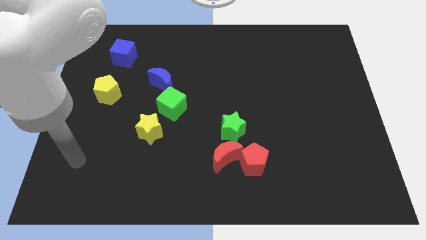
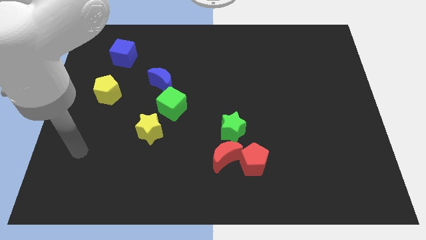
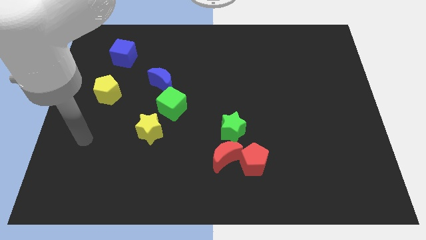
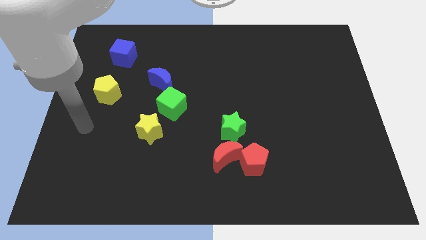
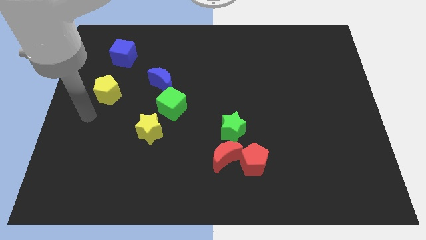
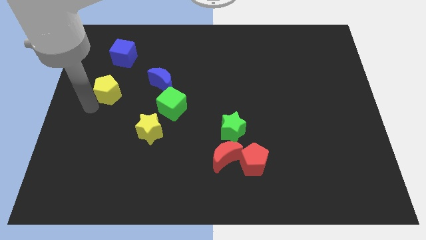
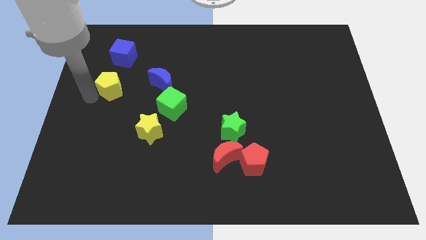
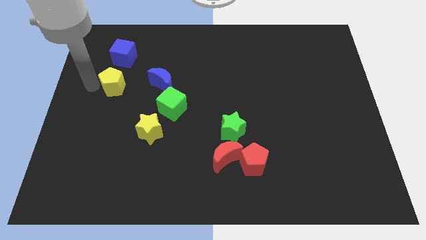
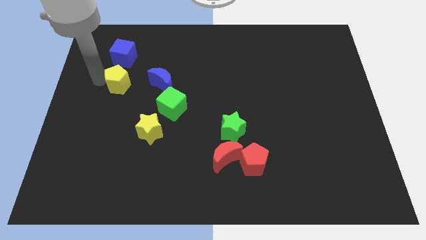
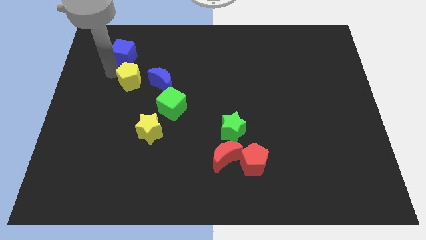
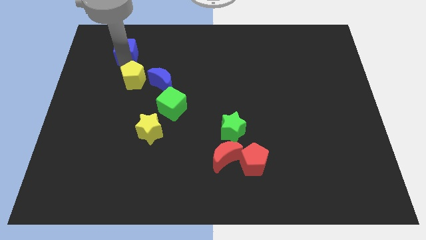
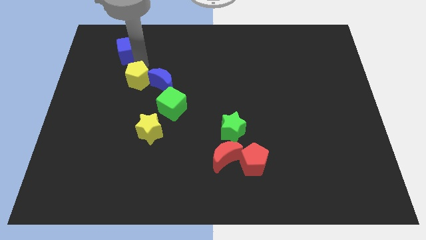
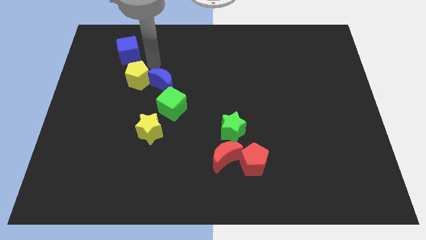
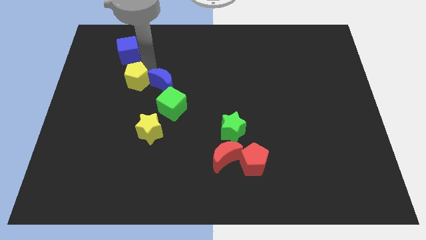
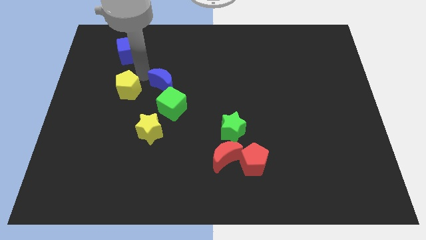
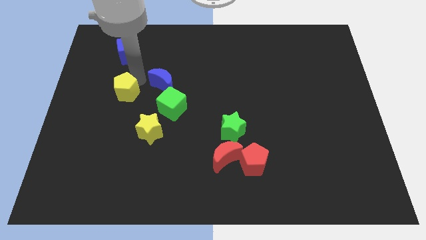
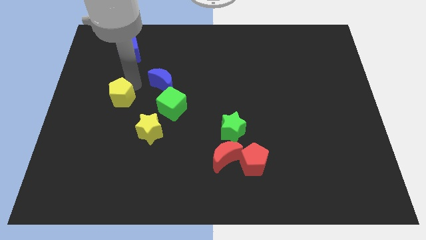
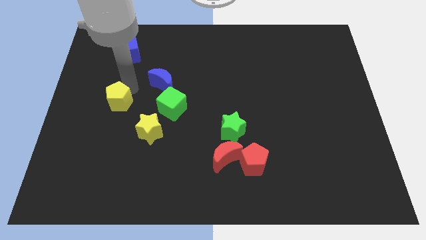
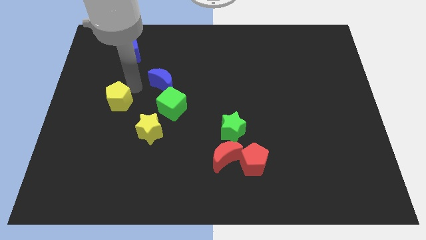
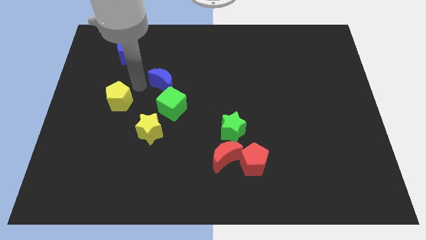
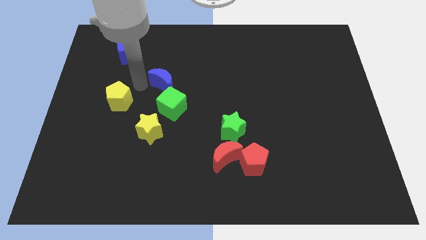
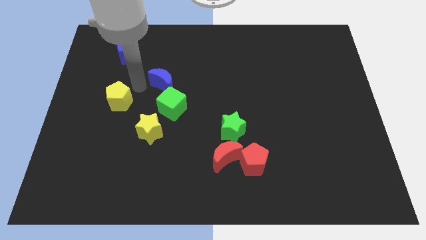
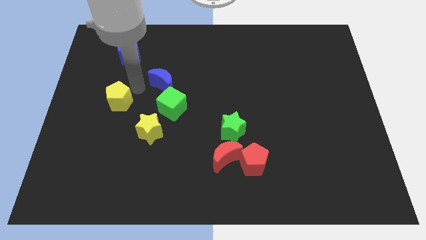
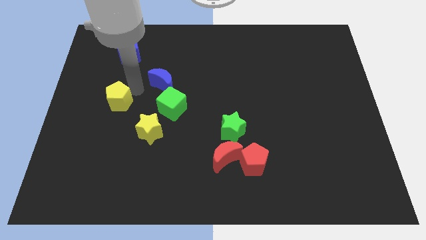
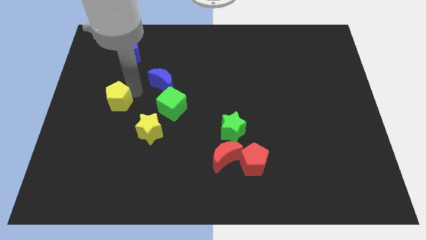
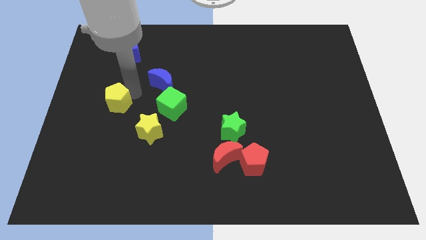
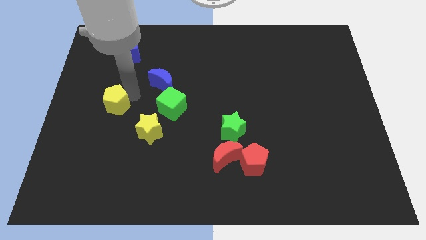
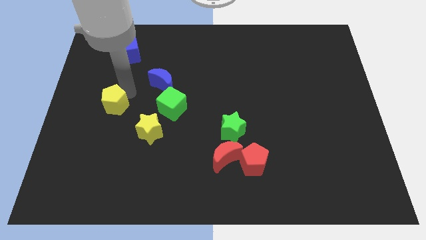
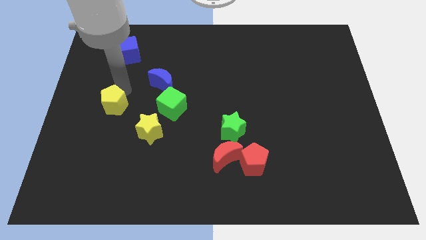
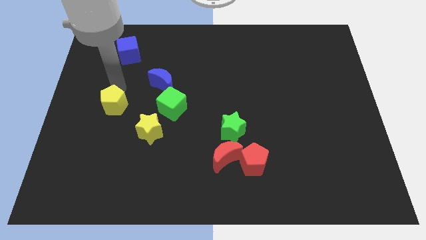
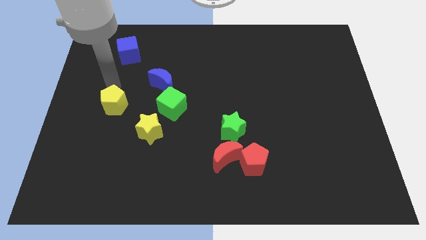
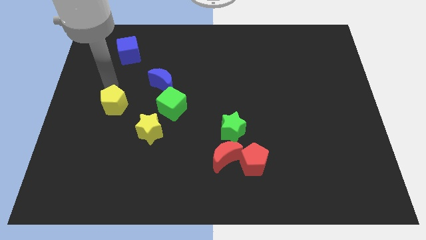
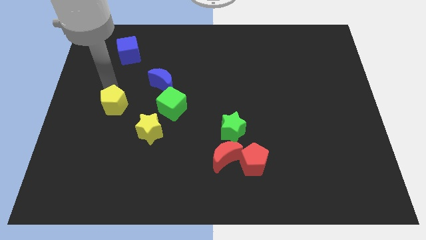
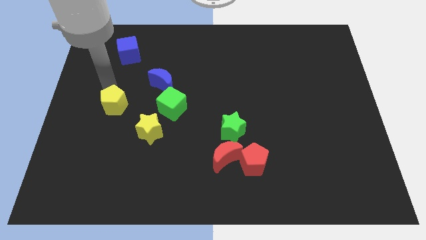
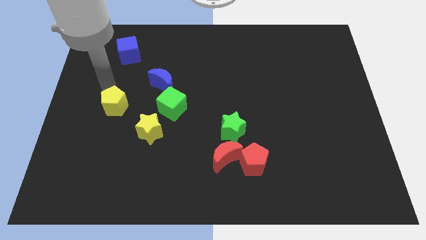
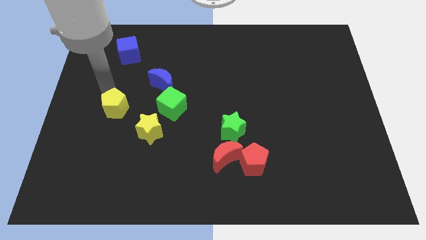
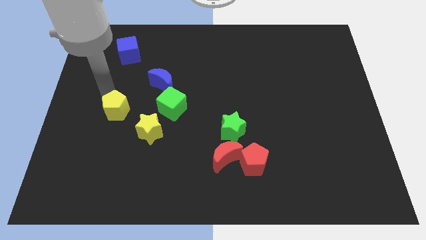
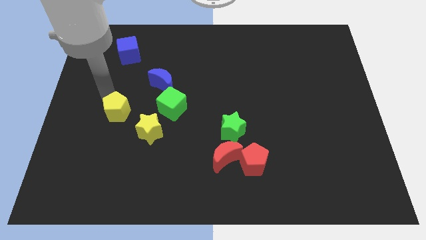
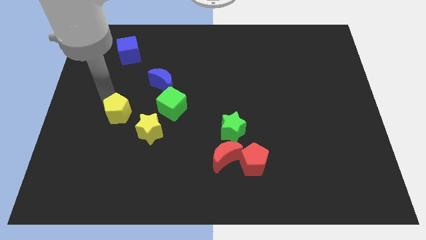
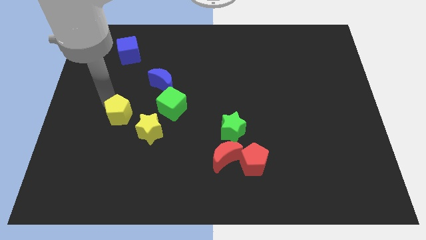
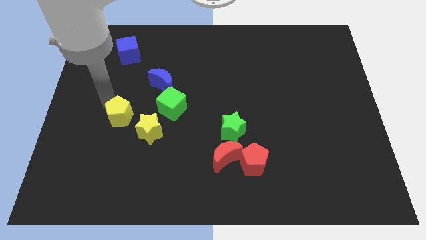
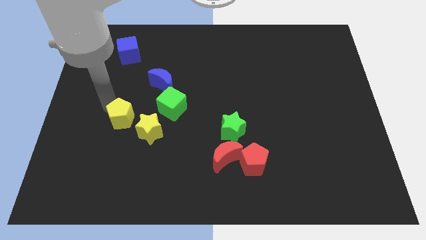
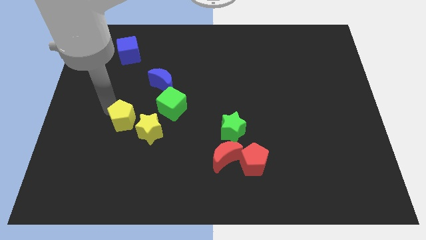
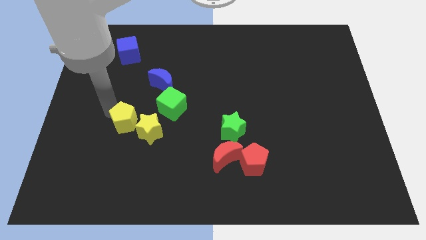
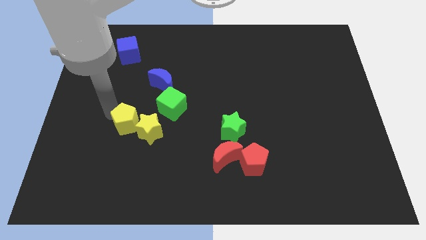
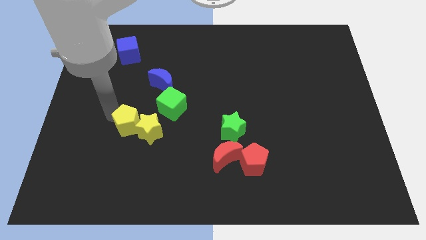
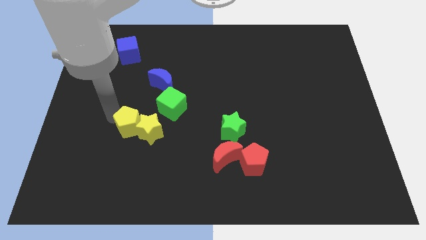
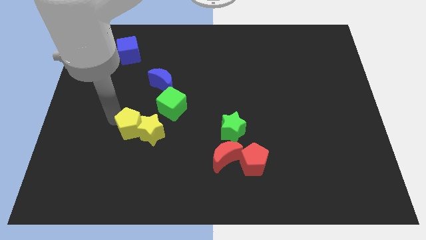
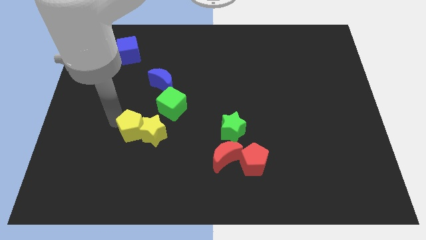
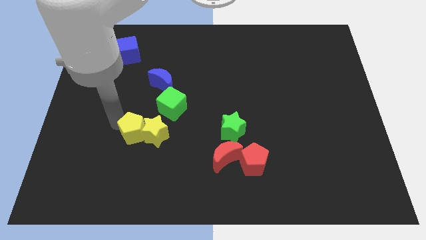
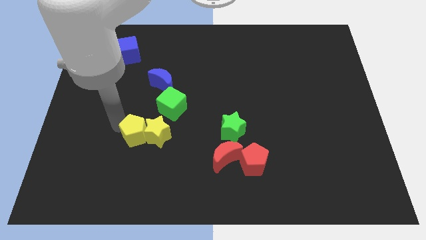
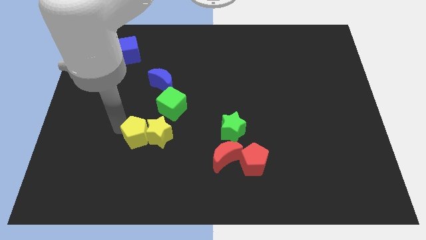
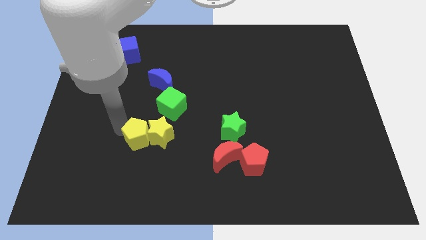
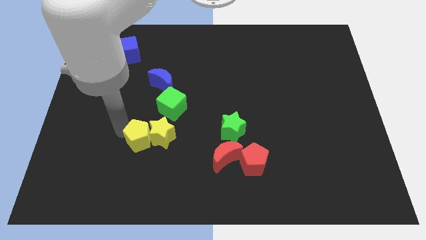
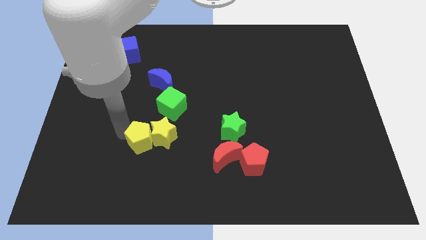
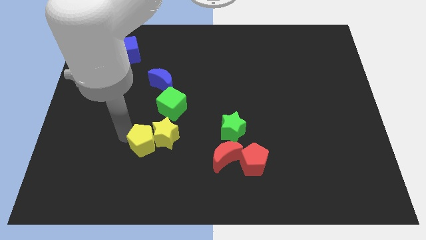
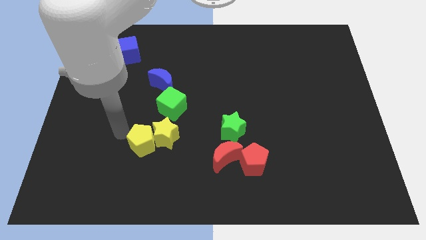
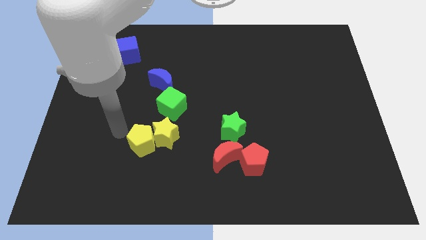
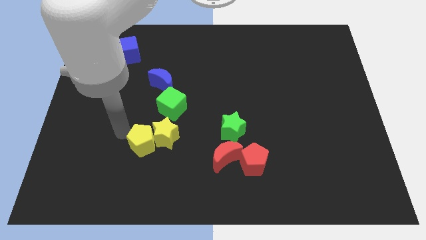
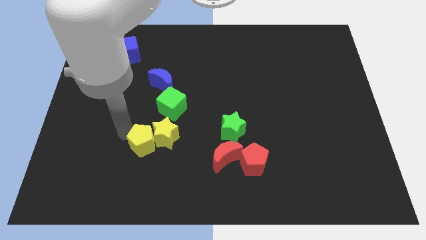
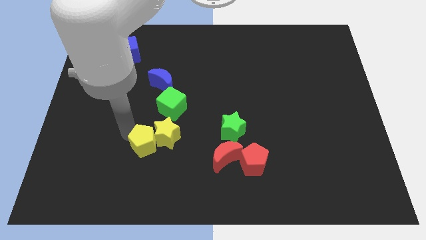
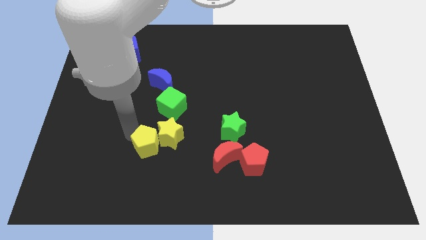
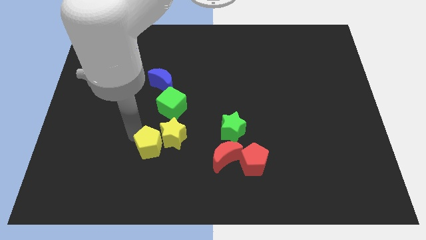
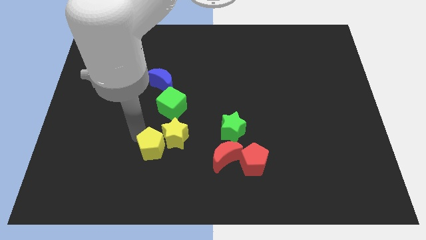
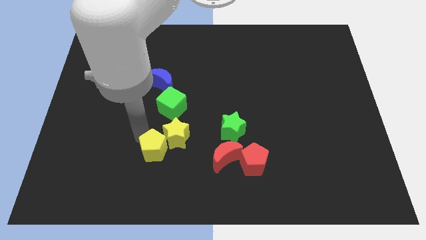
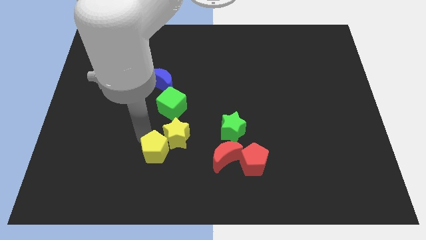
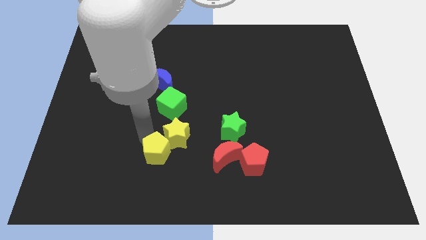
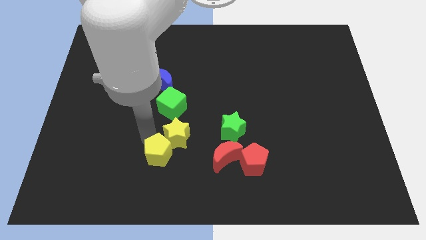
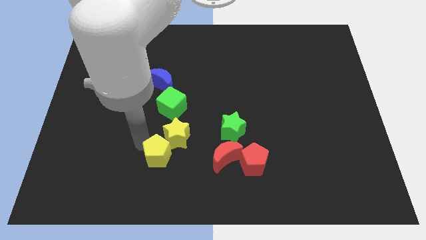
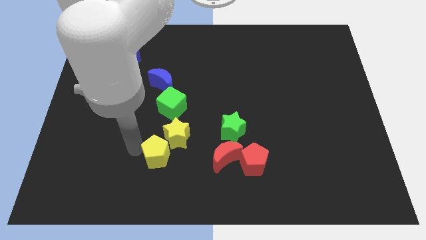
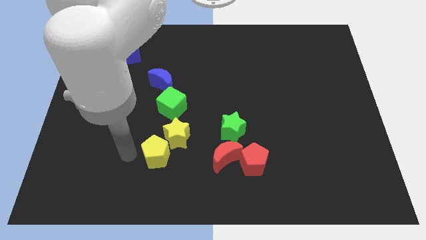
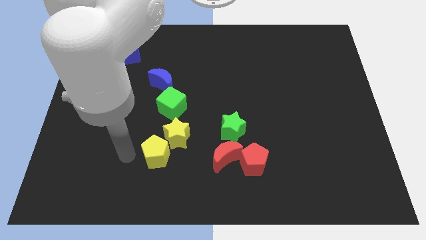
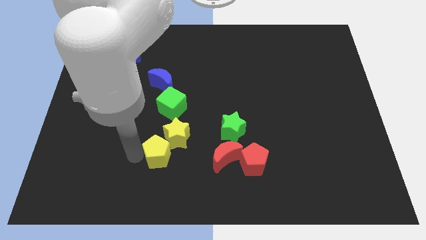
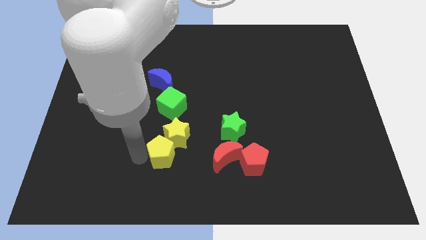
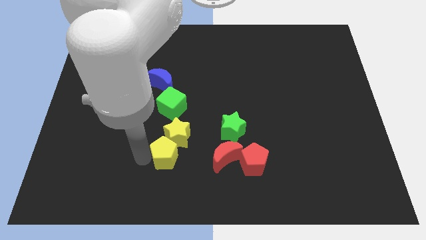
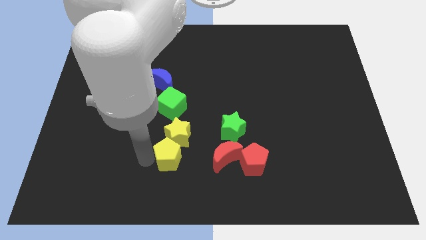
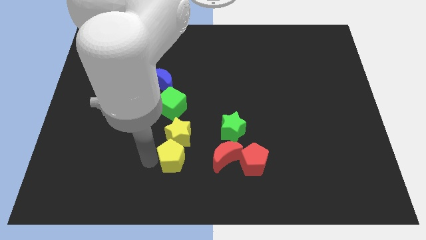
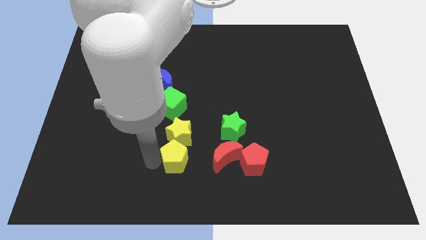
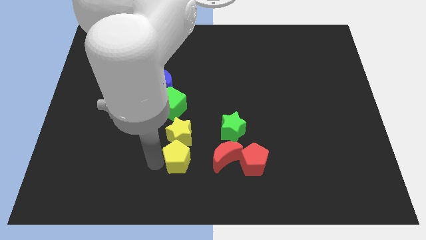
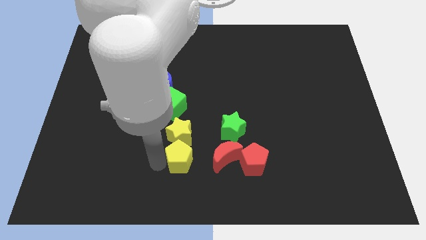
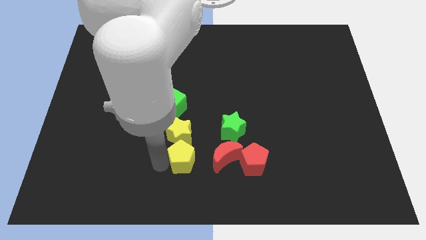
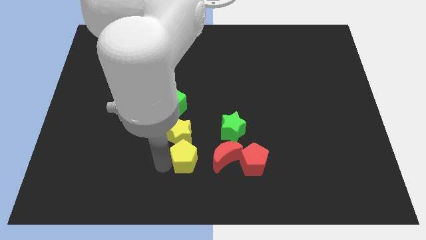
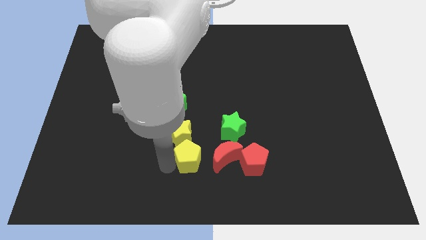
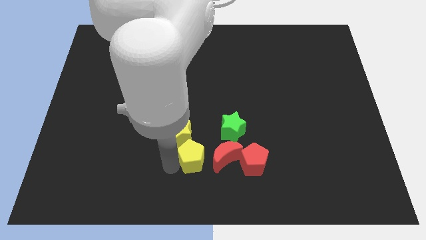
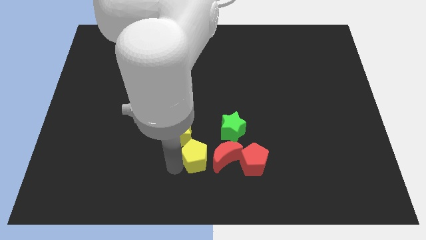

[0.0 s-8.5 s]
slide the yellow pentagon to the red moon
